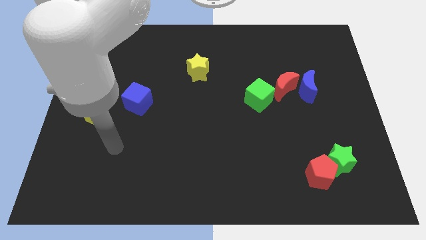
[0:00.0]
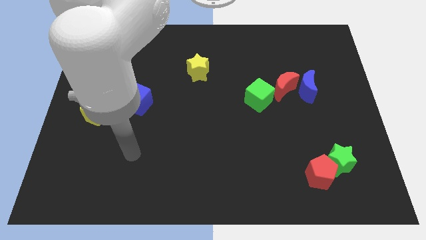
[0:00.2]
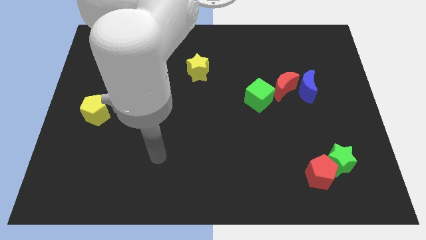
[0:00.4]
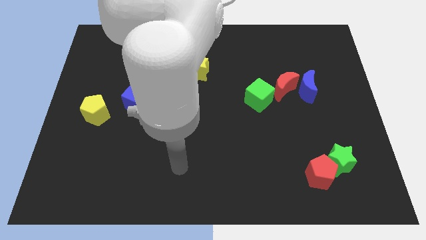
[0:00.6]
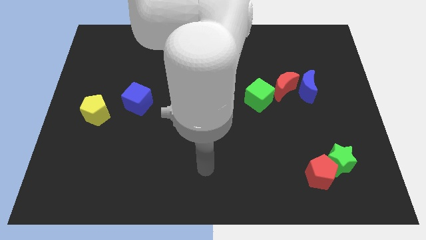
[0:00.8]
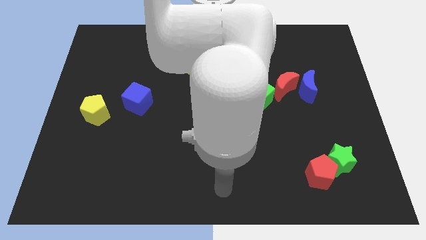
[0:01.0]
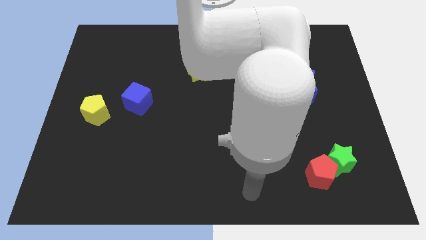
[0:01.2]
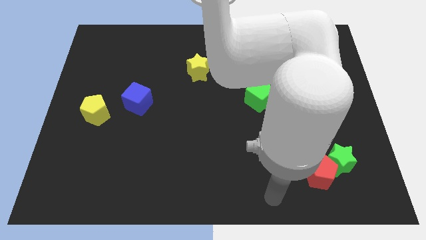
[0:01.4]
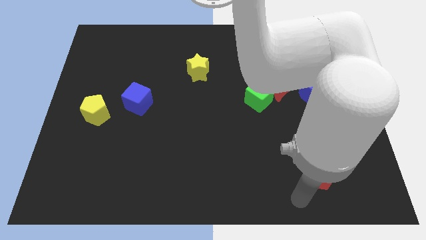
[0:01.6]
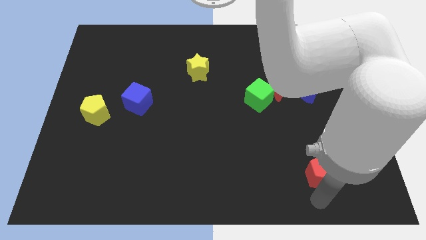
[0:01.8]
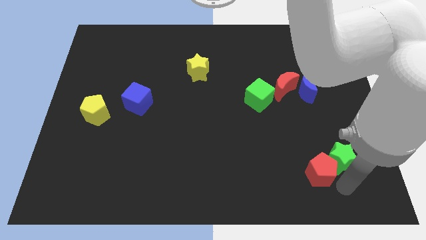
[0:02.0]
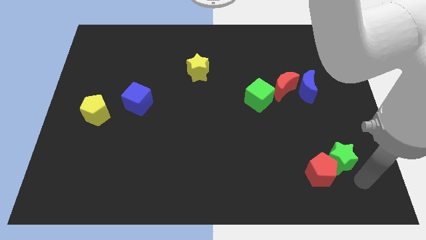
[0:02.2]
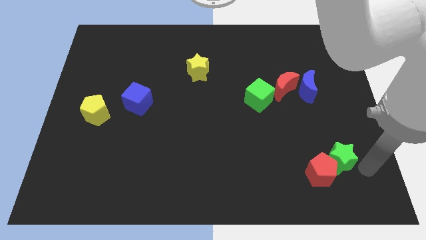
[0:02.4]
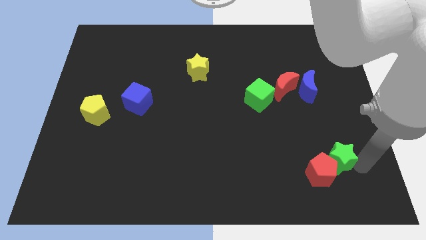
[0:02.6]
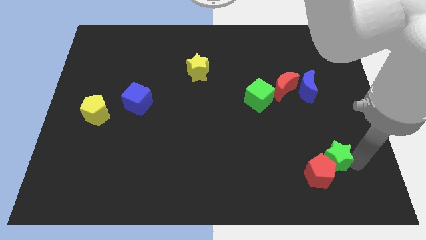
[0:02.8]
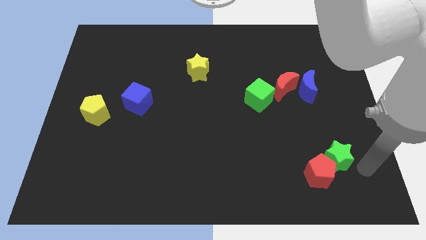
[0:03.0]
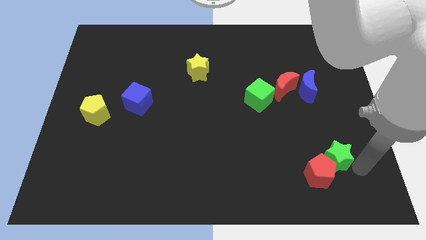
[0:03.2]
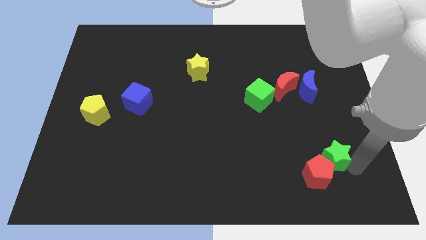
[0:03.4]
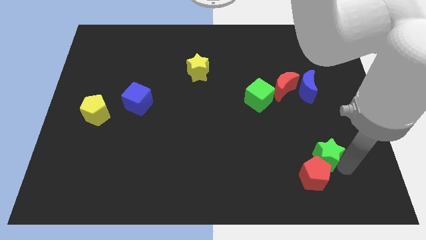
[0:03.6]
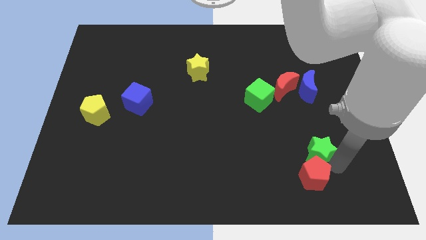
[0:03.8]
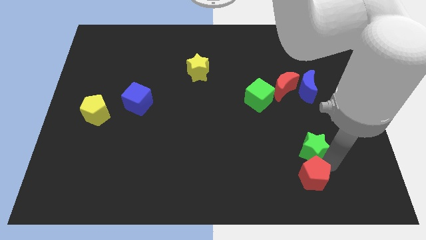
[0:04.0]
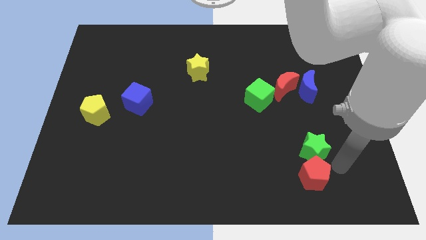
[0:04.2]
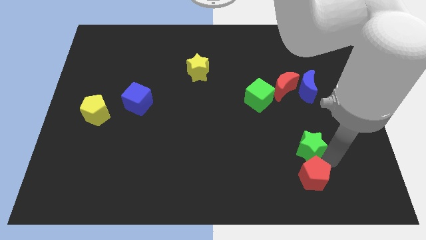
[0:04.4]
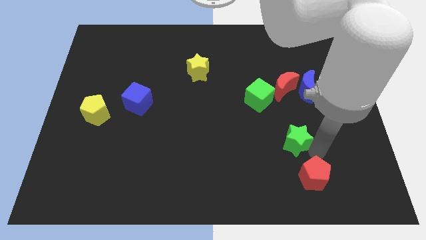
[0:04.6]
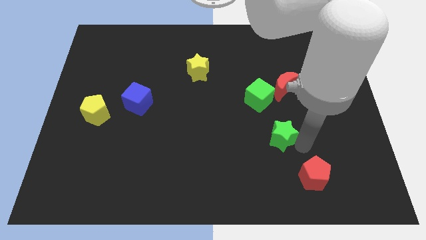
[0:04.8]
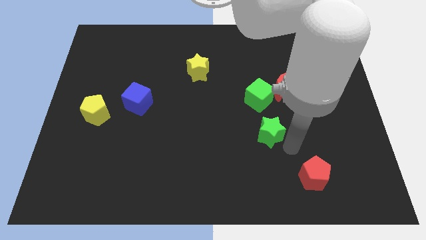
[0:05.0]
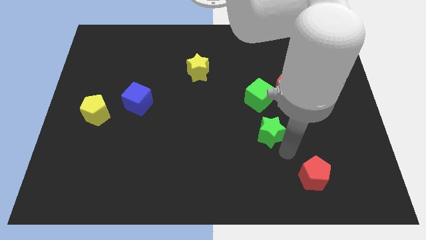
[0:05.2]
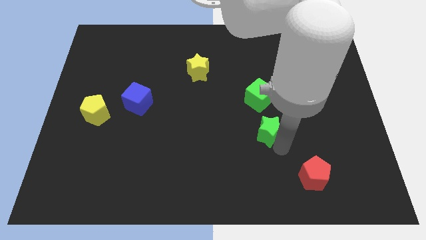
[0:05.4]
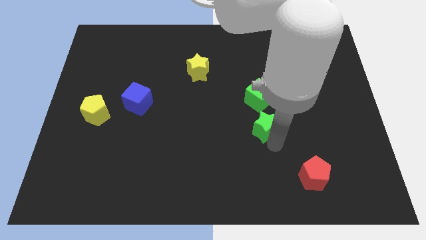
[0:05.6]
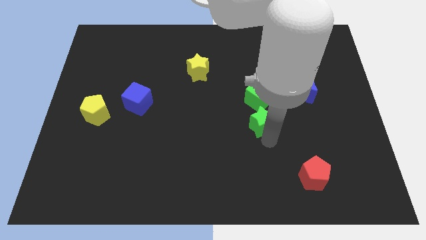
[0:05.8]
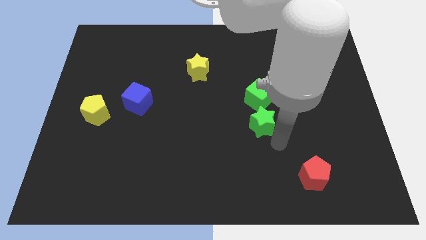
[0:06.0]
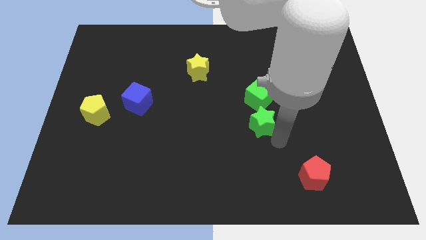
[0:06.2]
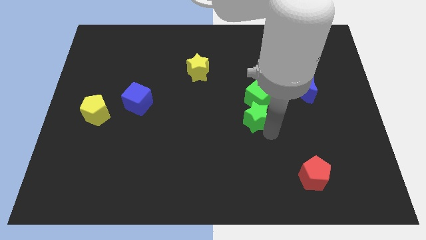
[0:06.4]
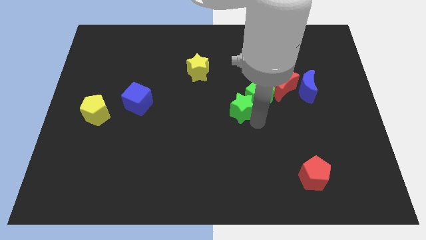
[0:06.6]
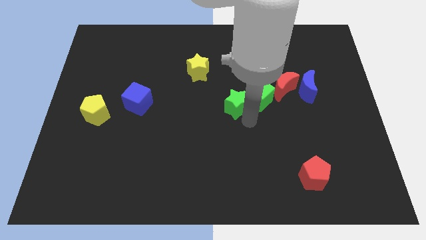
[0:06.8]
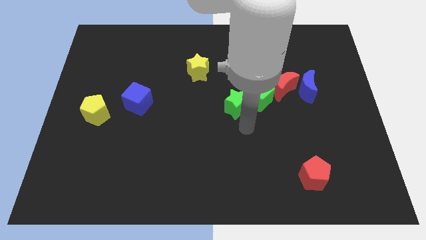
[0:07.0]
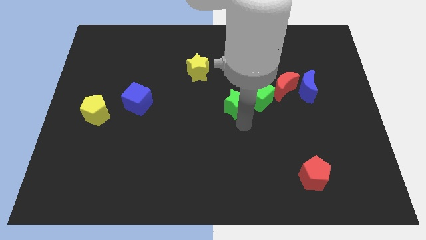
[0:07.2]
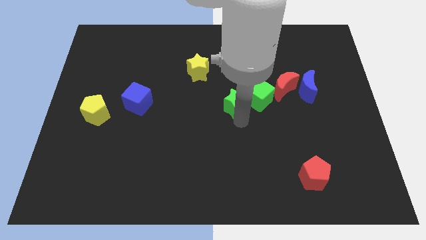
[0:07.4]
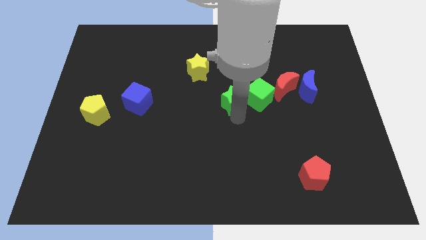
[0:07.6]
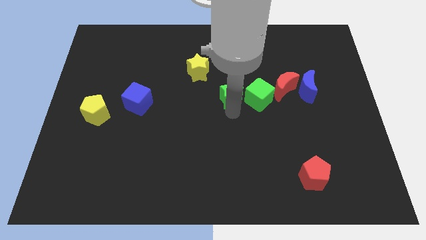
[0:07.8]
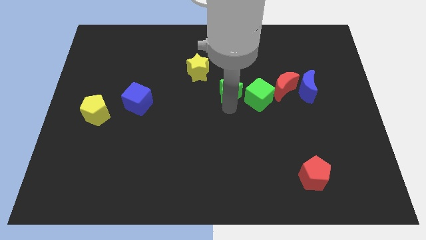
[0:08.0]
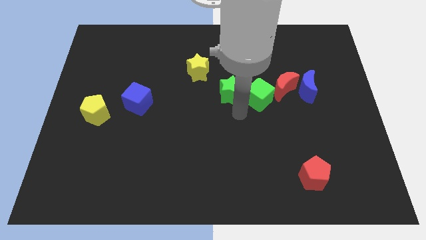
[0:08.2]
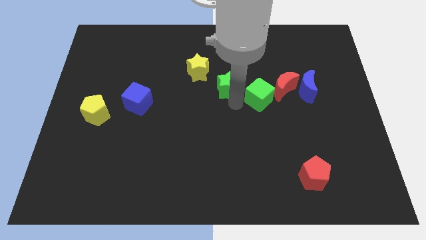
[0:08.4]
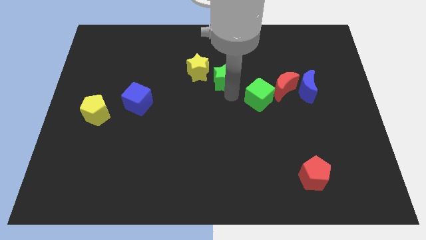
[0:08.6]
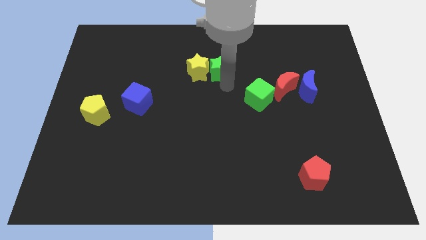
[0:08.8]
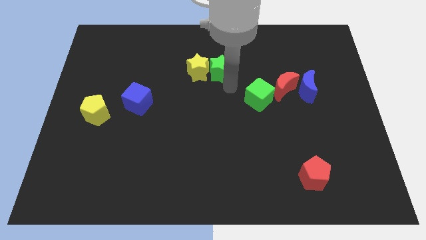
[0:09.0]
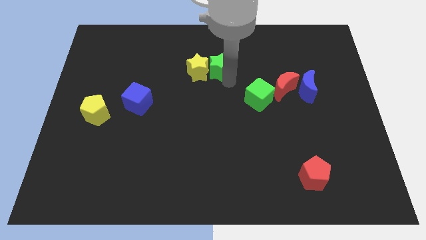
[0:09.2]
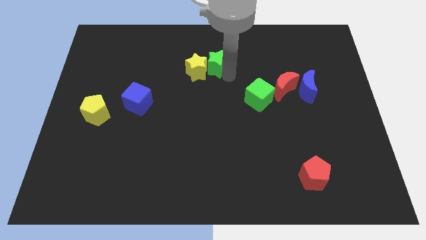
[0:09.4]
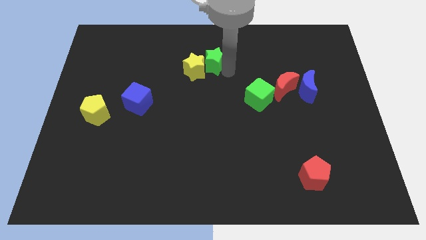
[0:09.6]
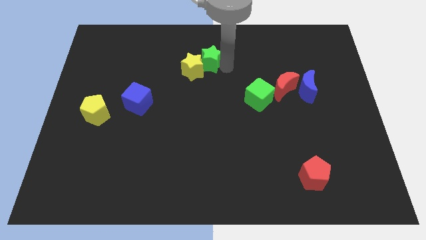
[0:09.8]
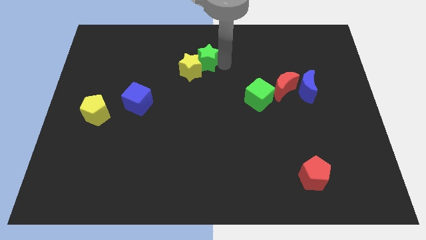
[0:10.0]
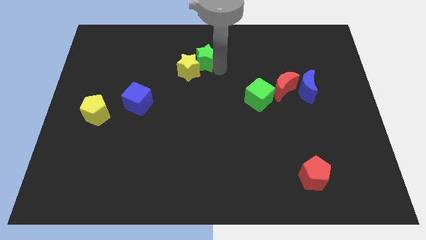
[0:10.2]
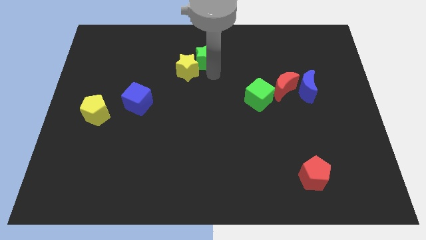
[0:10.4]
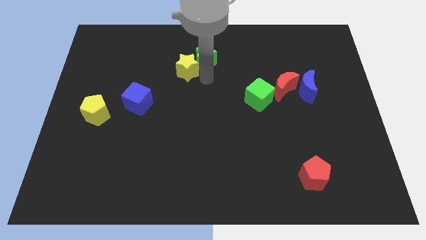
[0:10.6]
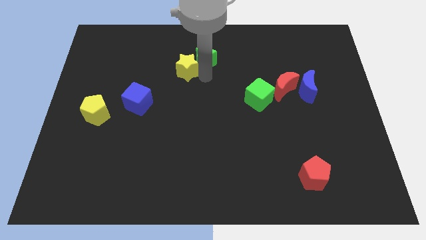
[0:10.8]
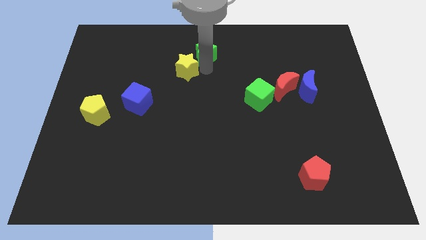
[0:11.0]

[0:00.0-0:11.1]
slide the green star to the top
